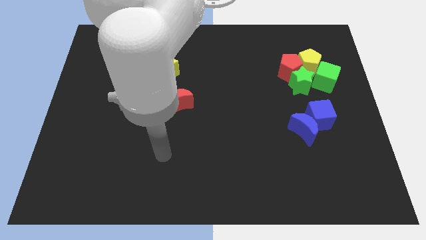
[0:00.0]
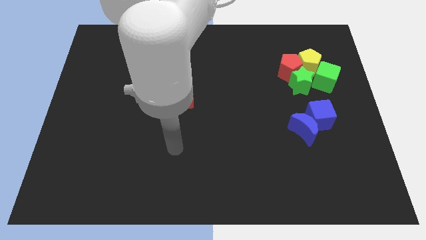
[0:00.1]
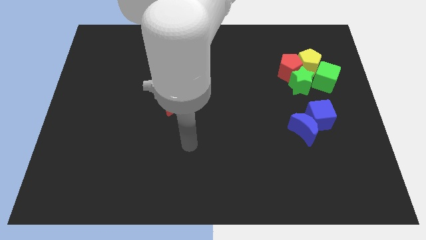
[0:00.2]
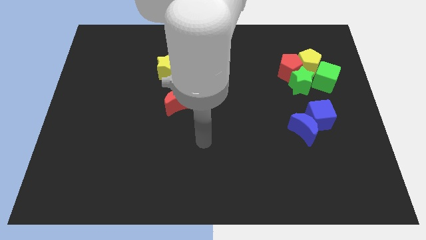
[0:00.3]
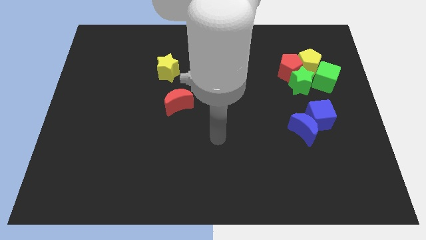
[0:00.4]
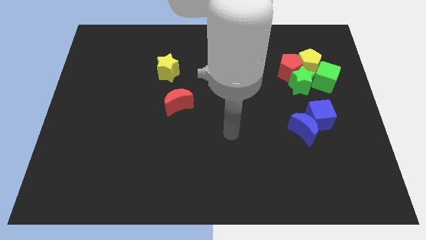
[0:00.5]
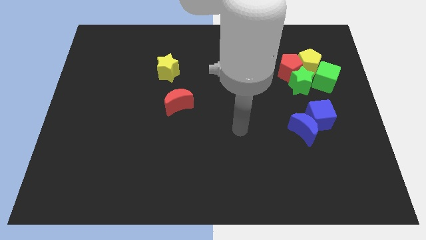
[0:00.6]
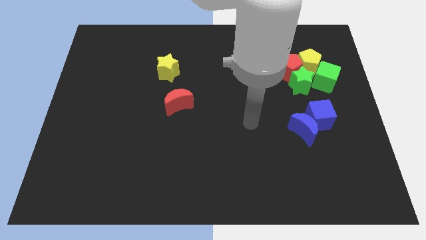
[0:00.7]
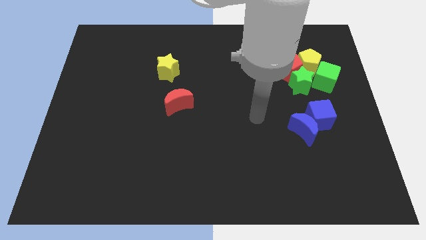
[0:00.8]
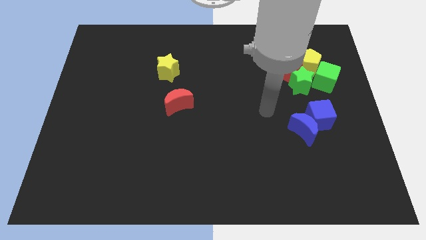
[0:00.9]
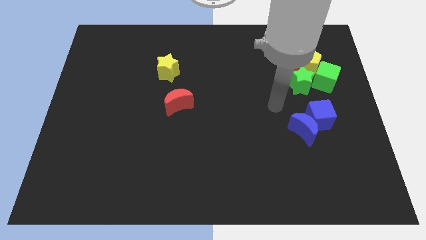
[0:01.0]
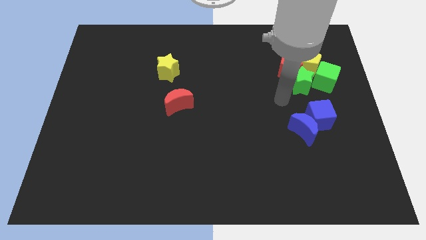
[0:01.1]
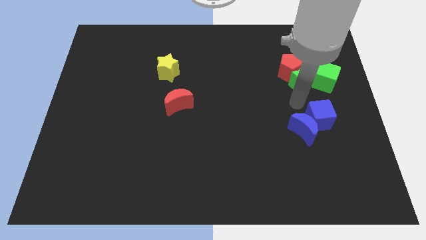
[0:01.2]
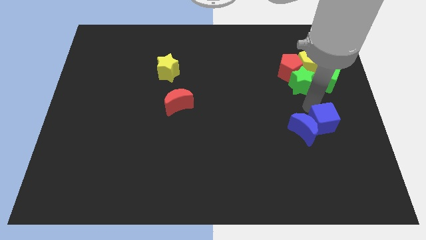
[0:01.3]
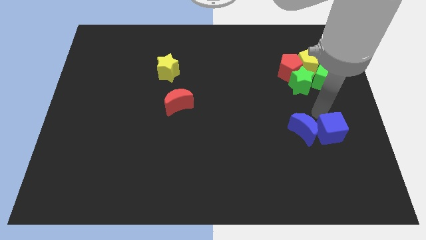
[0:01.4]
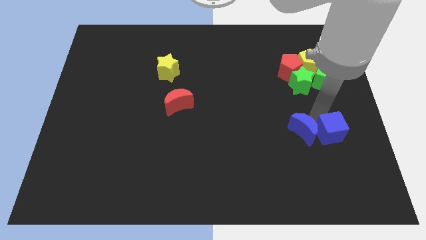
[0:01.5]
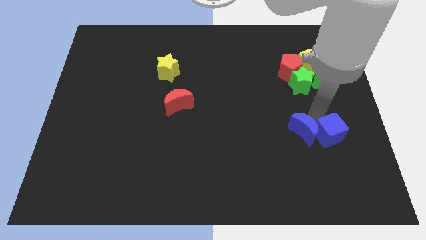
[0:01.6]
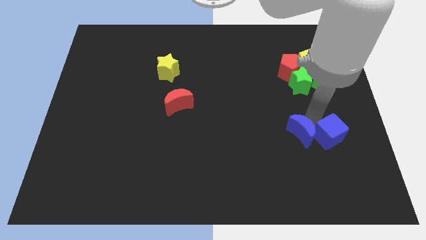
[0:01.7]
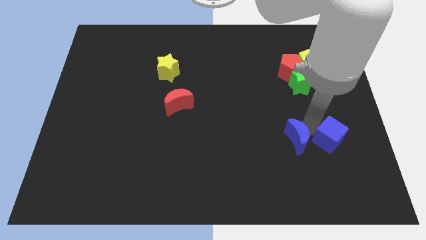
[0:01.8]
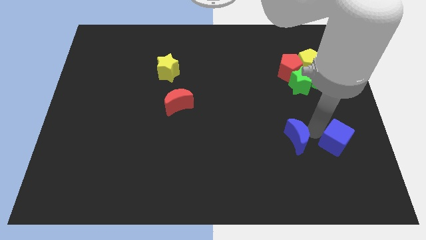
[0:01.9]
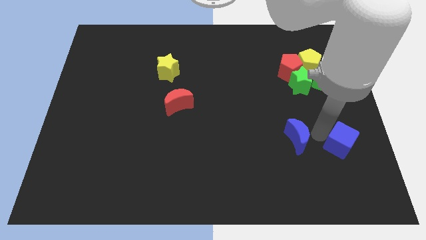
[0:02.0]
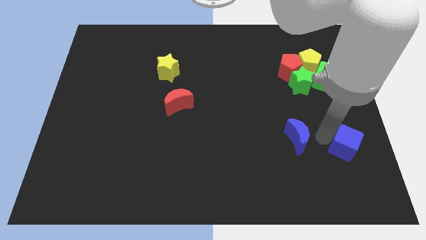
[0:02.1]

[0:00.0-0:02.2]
pull the blue moon apart from the blue cube

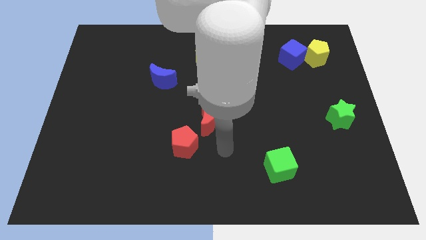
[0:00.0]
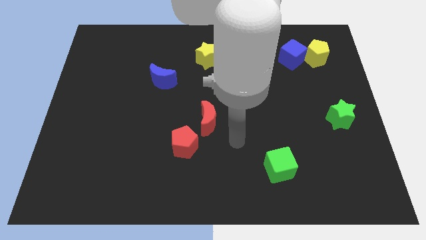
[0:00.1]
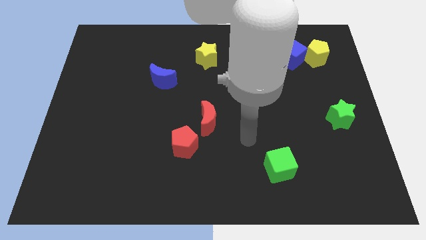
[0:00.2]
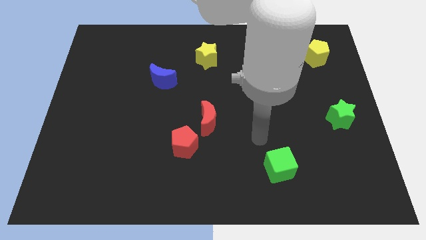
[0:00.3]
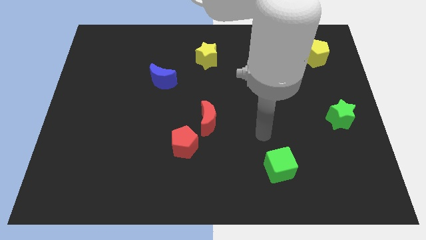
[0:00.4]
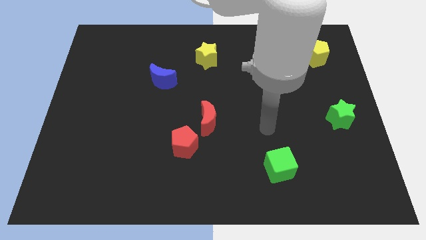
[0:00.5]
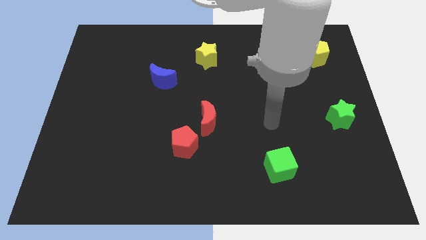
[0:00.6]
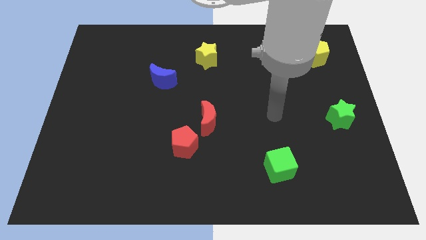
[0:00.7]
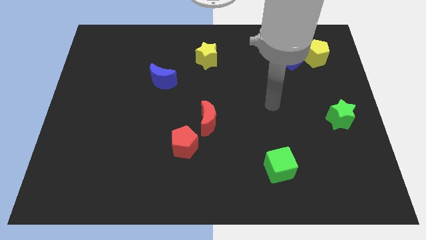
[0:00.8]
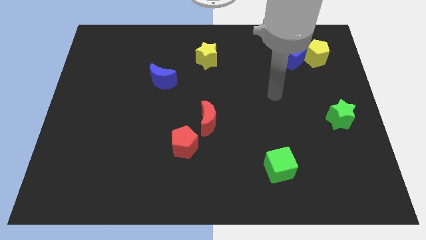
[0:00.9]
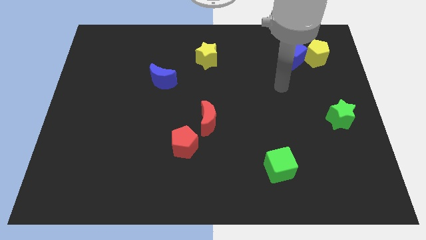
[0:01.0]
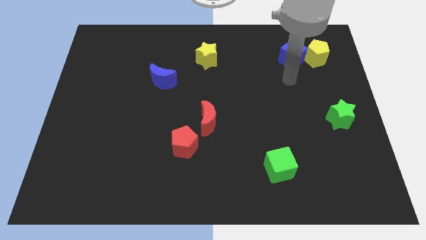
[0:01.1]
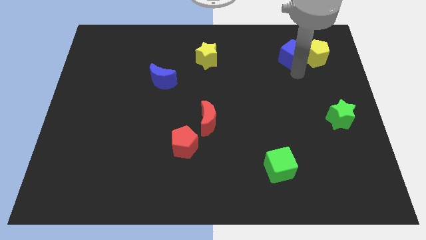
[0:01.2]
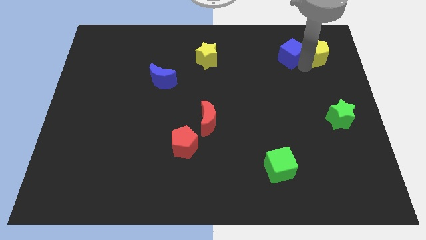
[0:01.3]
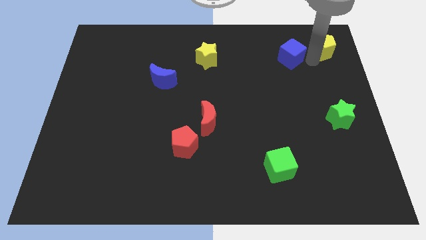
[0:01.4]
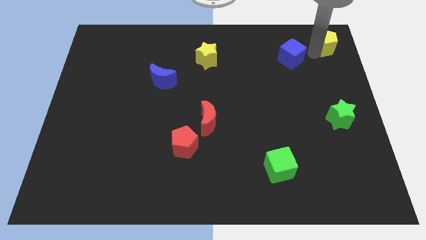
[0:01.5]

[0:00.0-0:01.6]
pull the blue cube apart from the yellow pentagon

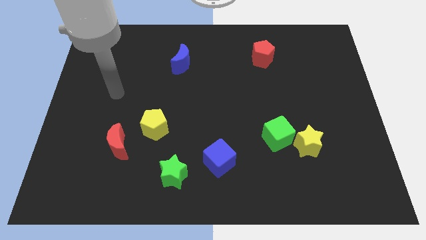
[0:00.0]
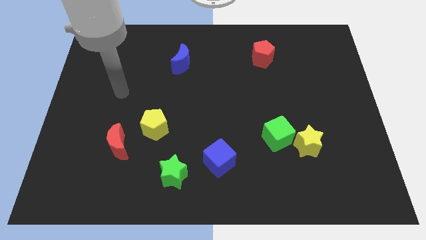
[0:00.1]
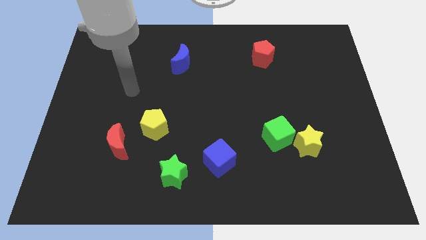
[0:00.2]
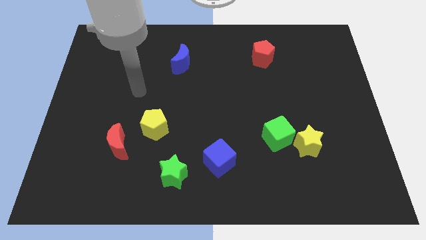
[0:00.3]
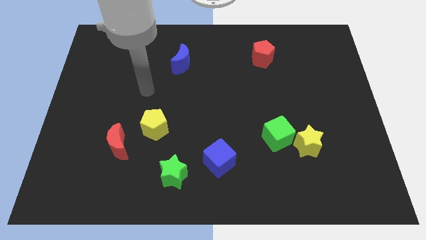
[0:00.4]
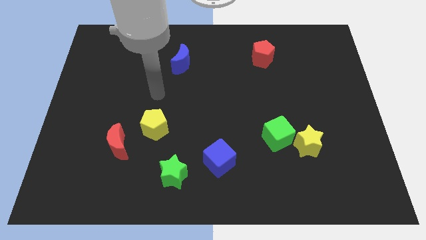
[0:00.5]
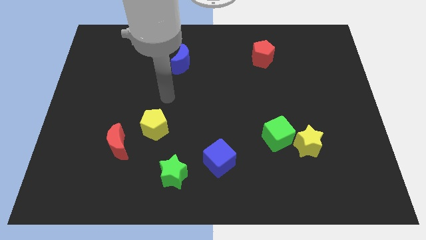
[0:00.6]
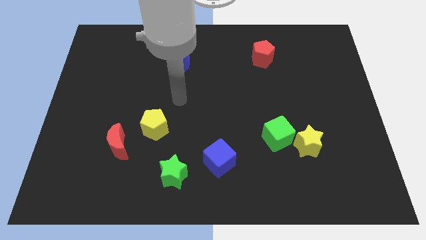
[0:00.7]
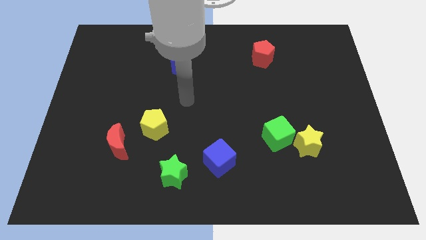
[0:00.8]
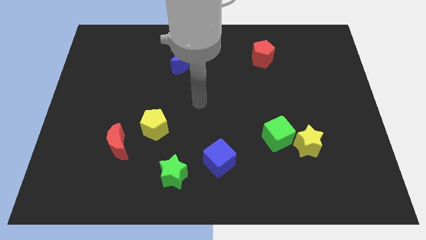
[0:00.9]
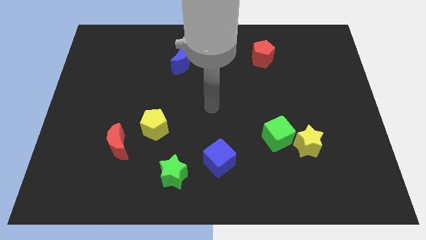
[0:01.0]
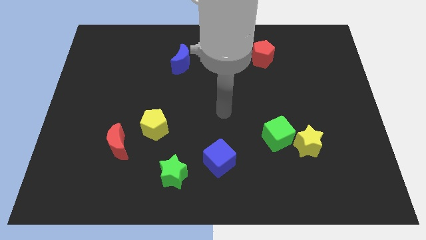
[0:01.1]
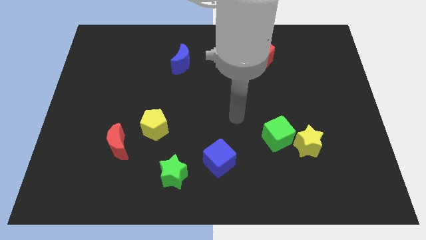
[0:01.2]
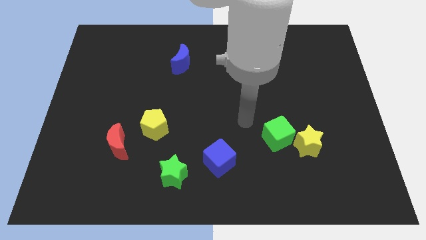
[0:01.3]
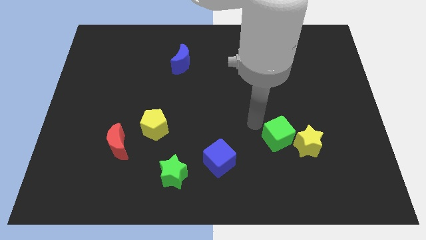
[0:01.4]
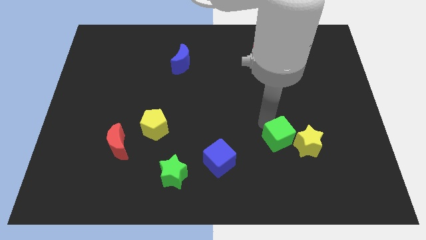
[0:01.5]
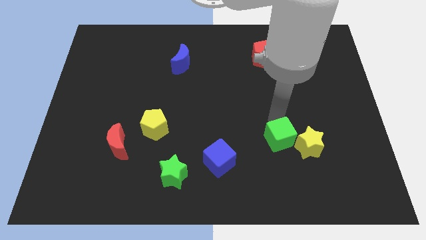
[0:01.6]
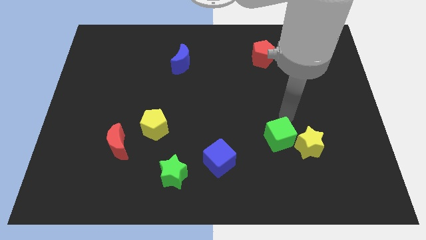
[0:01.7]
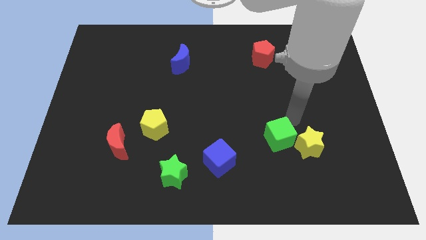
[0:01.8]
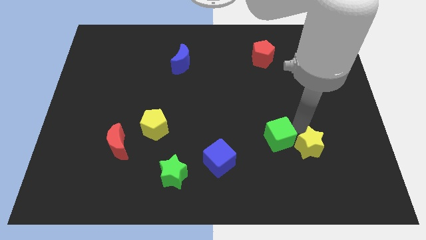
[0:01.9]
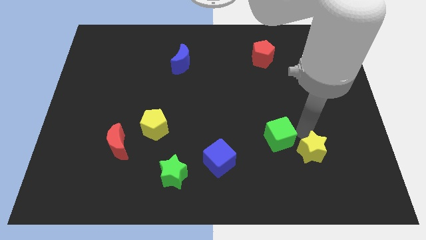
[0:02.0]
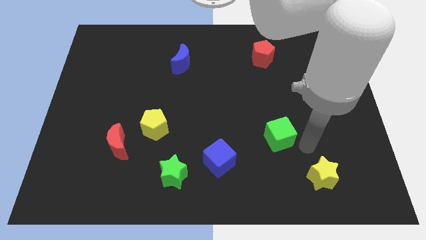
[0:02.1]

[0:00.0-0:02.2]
separate the green cube from the yellow star

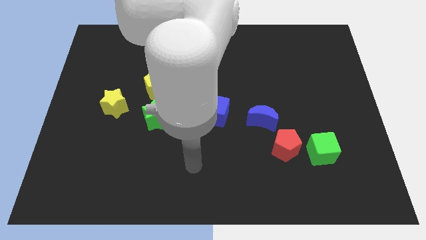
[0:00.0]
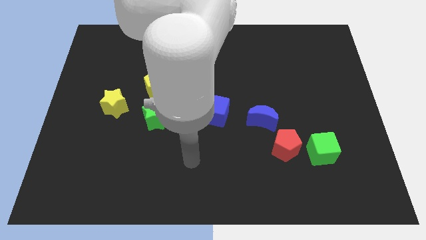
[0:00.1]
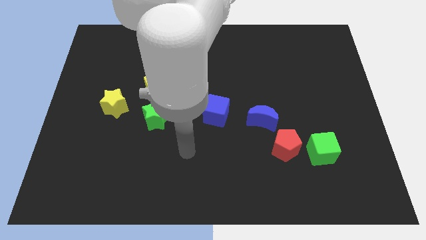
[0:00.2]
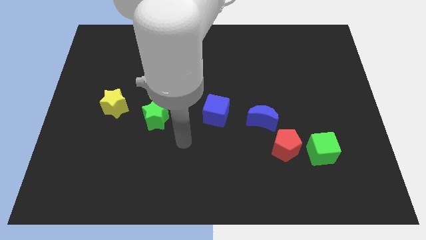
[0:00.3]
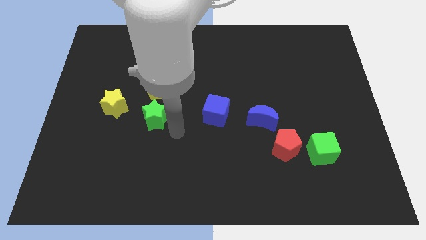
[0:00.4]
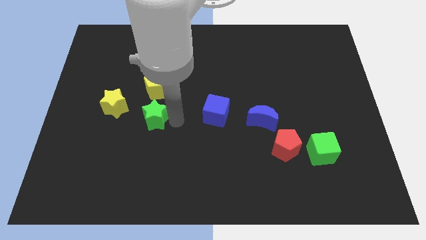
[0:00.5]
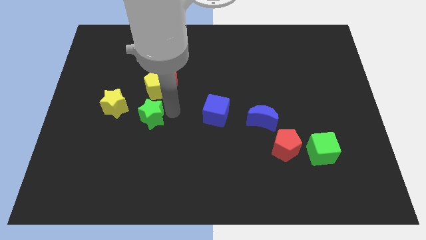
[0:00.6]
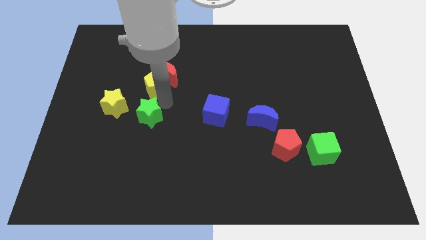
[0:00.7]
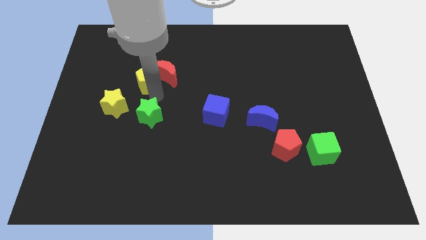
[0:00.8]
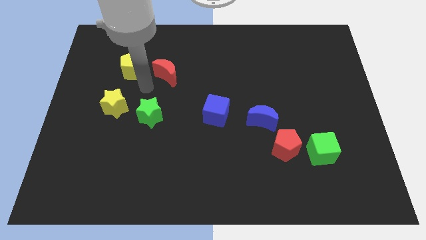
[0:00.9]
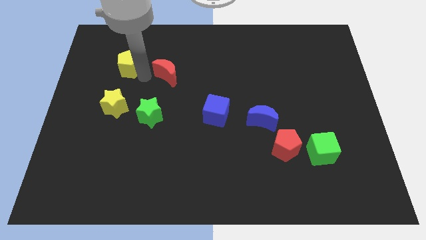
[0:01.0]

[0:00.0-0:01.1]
move the red moon away from the yellow pentagon

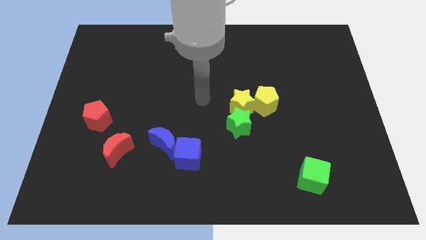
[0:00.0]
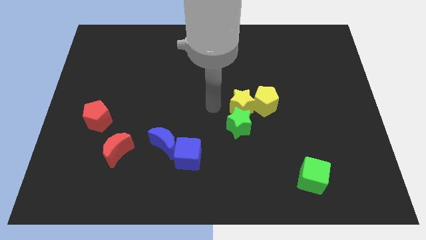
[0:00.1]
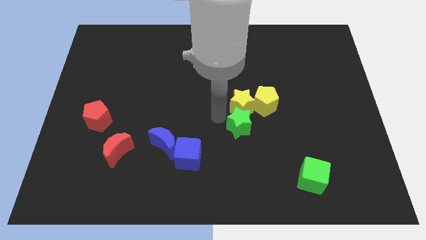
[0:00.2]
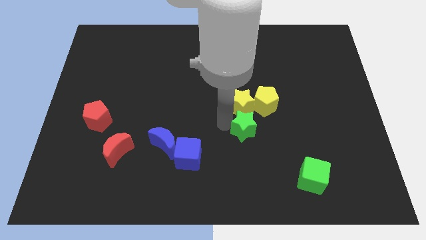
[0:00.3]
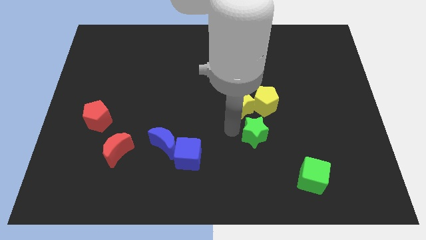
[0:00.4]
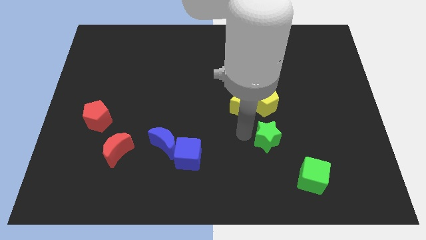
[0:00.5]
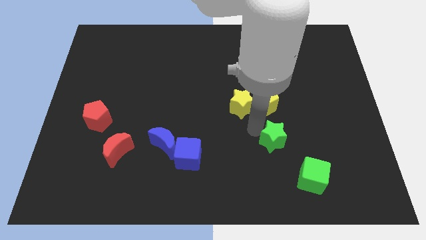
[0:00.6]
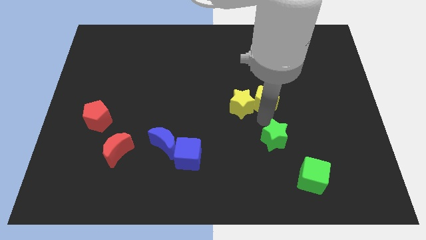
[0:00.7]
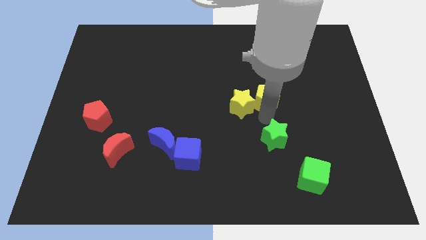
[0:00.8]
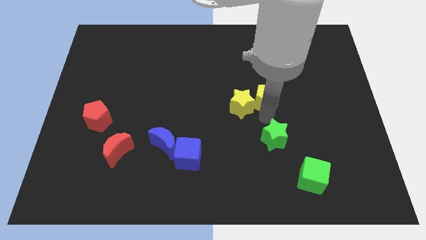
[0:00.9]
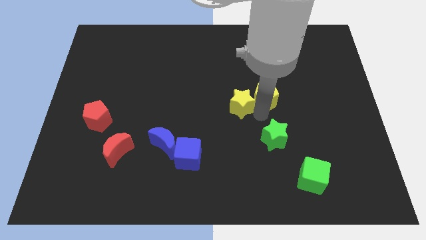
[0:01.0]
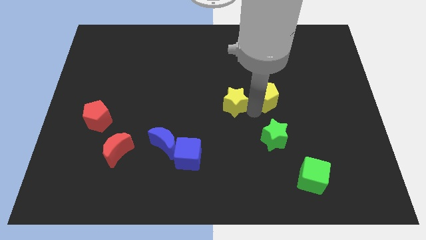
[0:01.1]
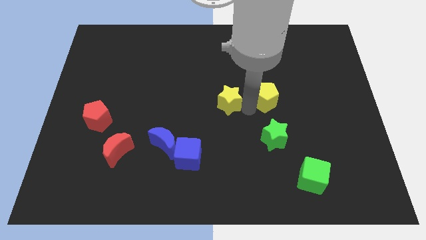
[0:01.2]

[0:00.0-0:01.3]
move the yellow star away from the yellow pentagon and green star

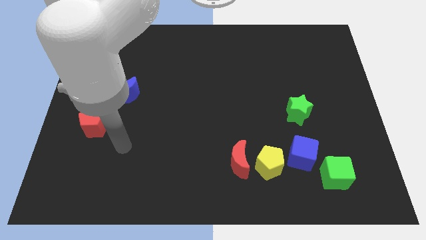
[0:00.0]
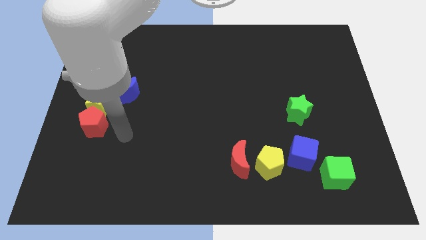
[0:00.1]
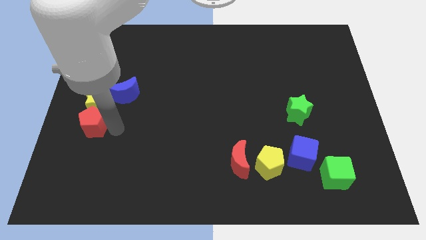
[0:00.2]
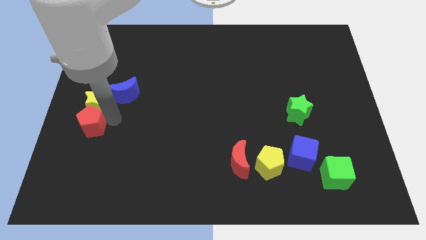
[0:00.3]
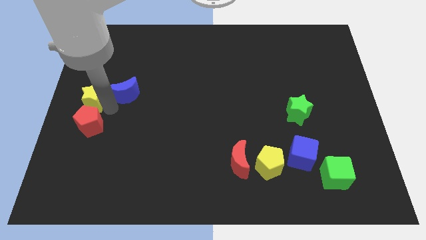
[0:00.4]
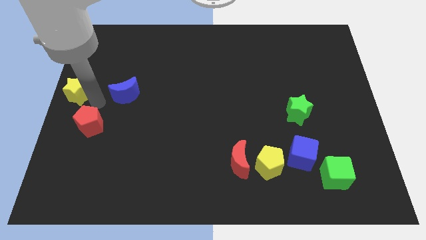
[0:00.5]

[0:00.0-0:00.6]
move the red pentagon away from the yellow star
